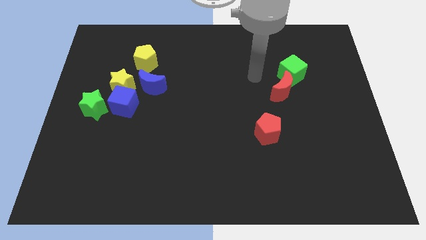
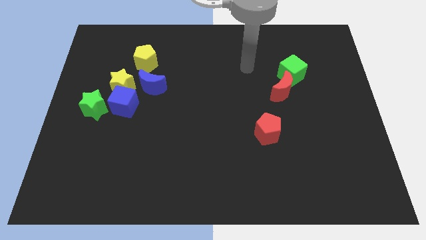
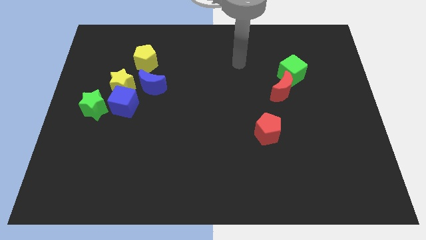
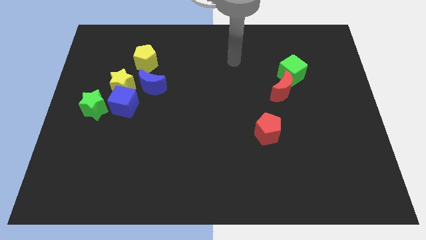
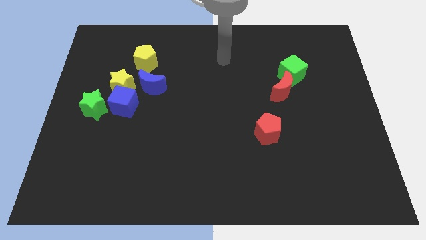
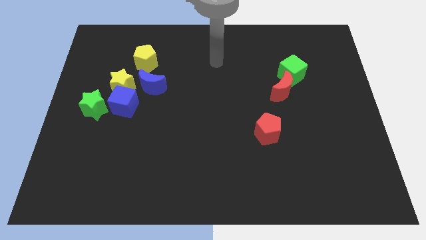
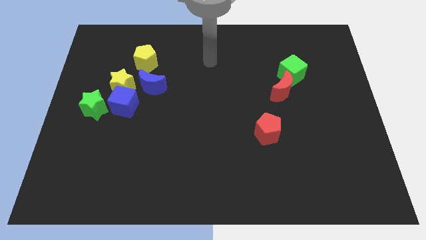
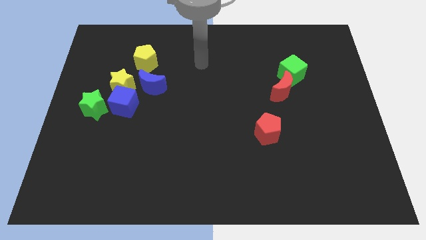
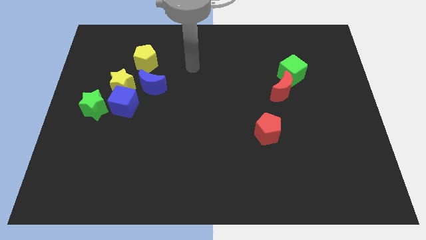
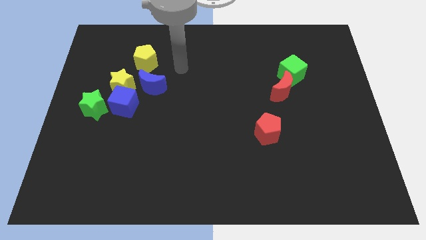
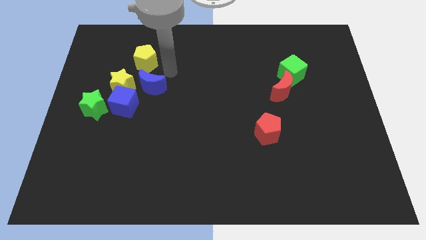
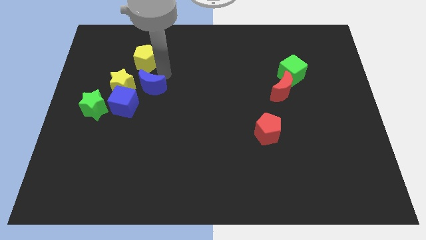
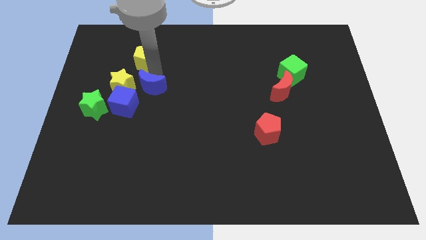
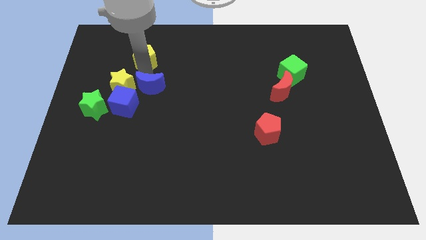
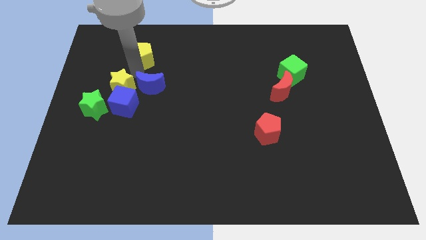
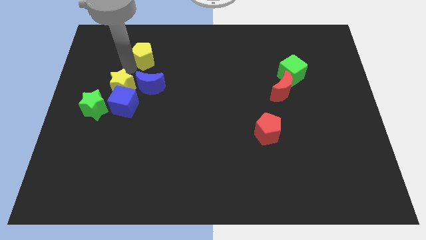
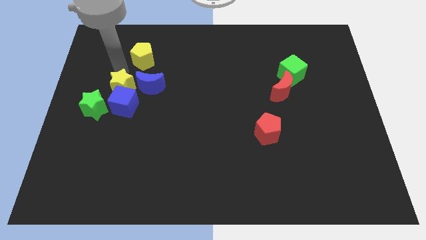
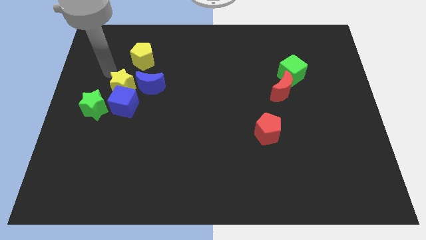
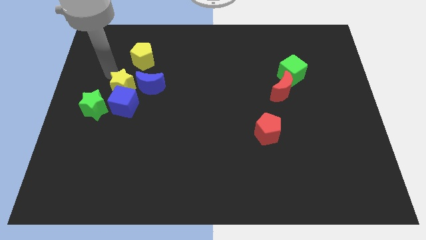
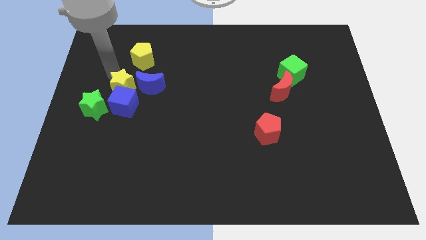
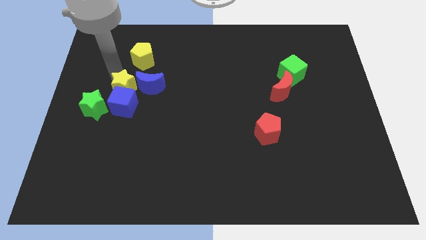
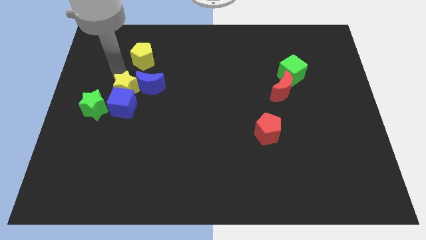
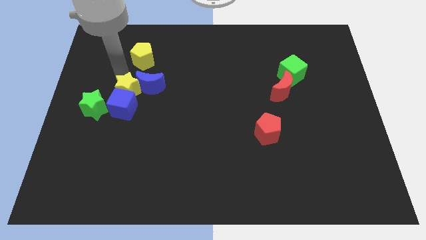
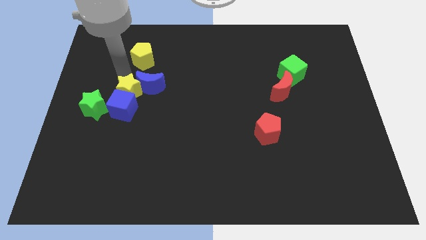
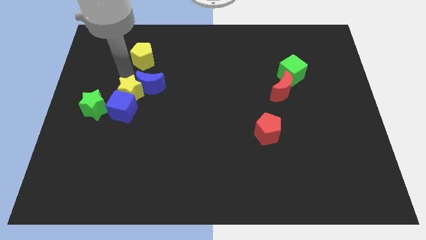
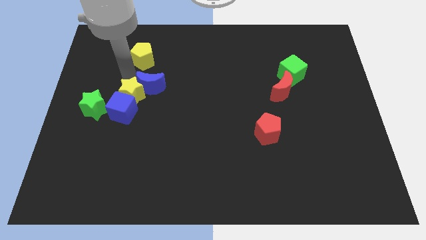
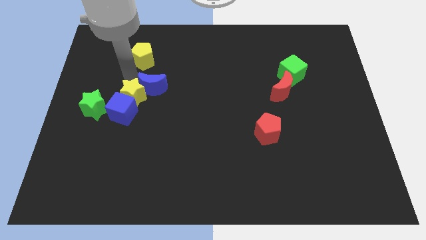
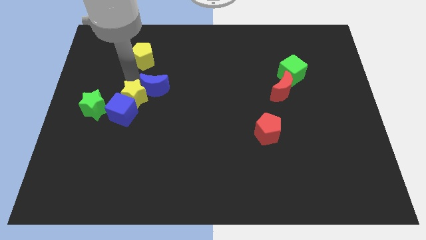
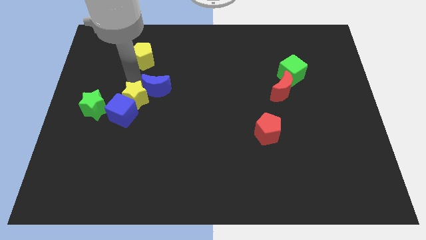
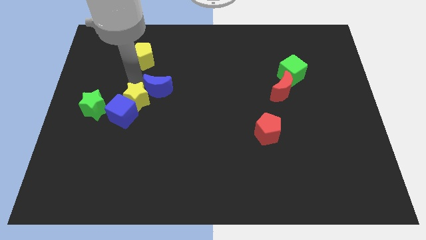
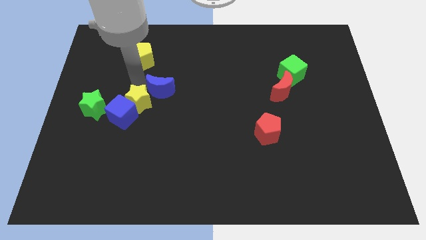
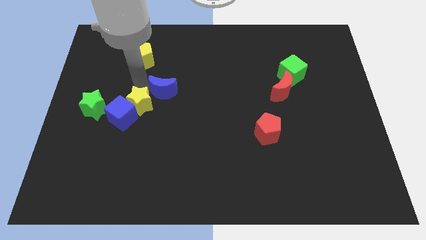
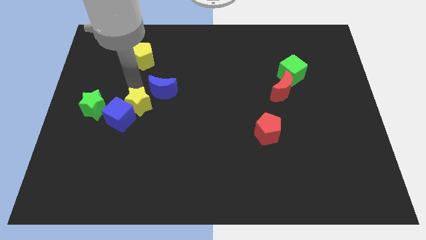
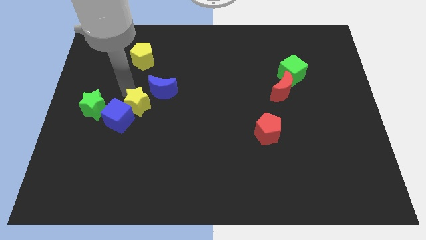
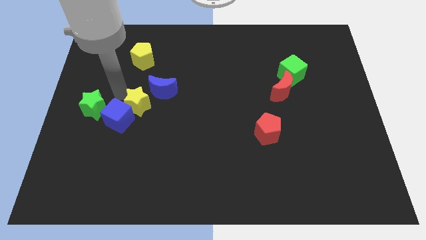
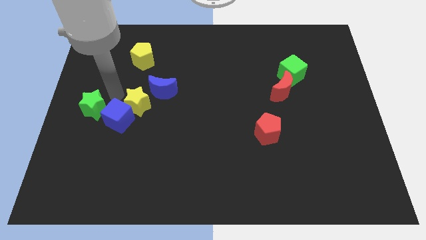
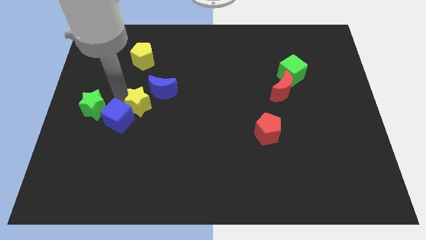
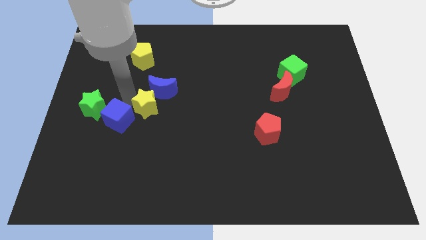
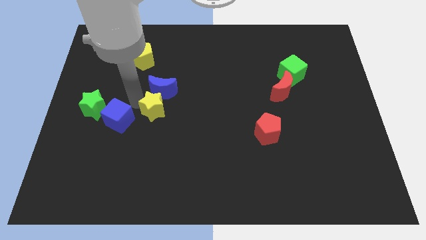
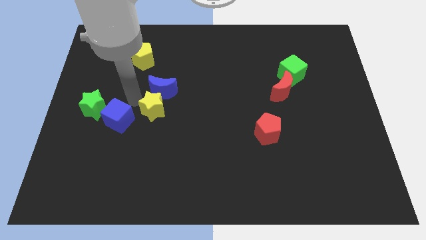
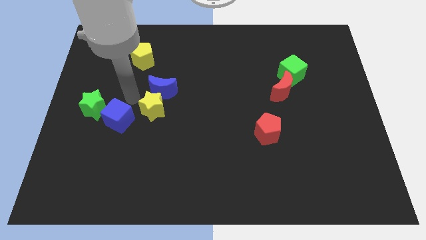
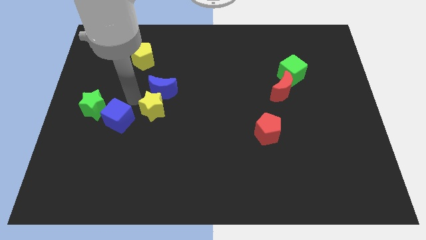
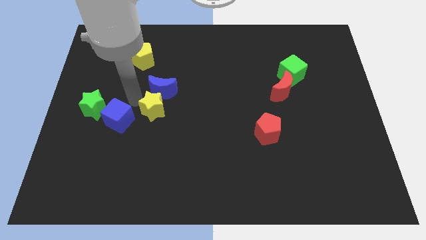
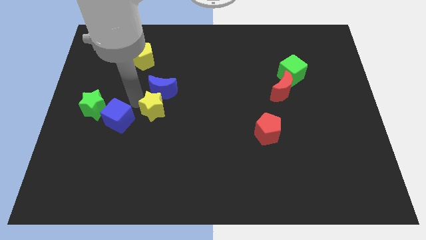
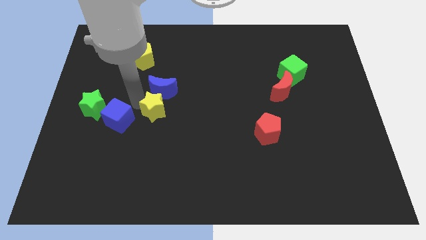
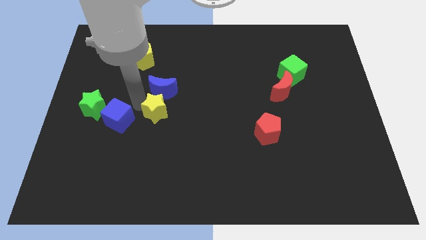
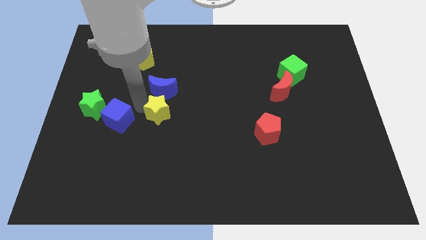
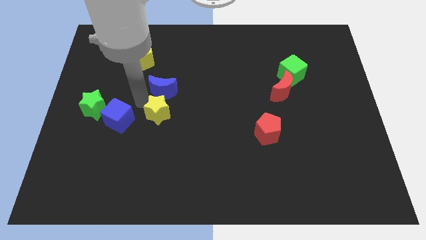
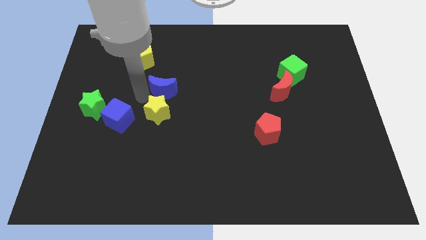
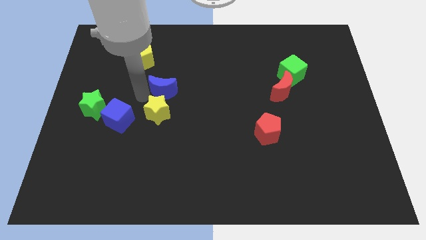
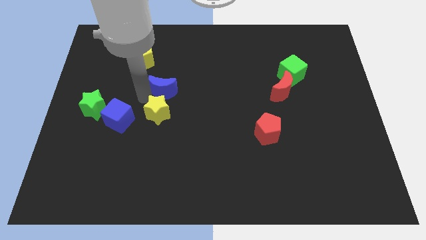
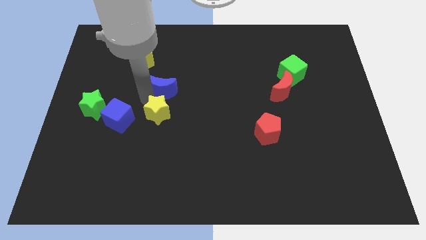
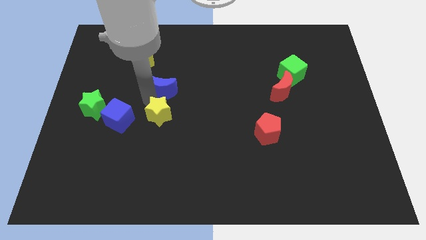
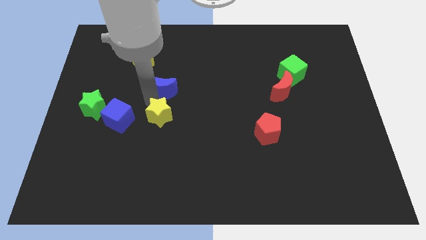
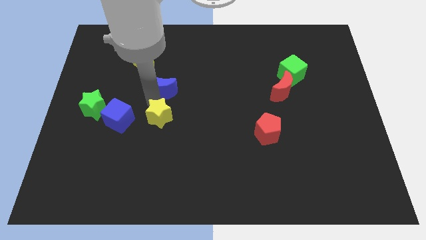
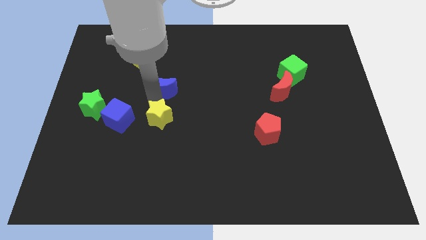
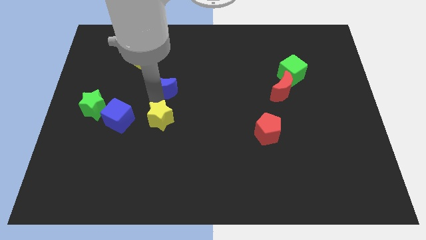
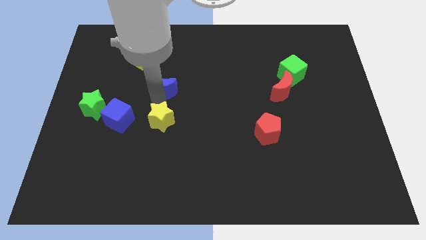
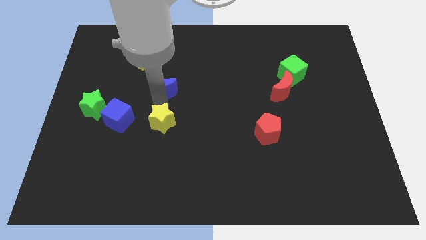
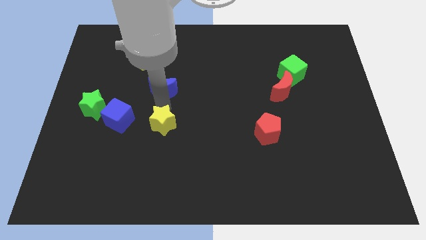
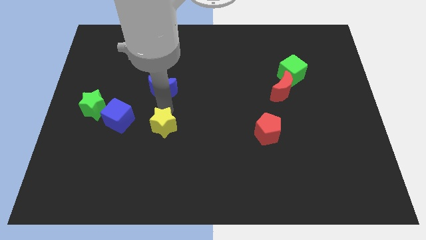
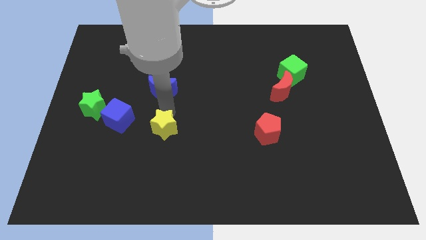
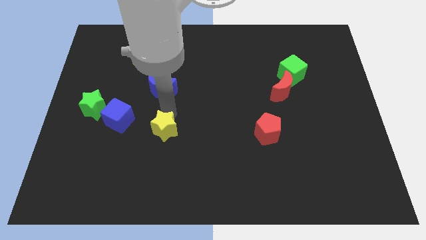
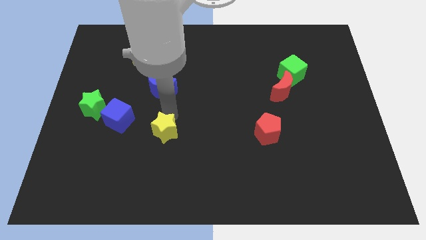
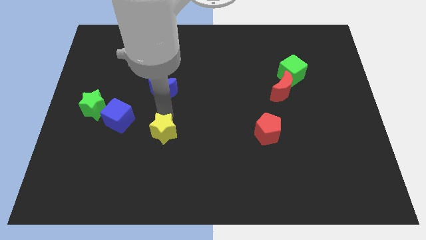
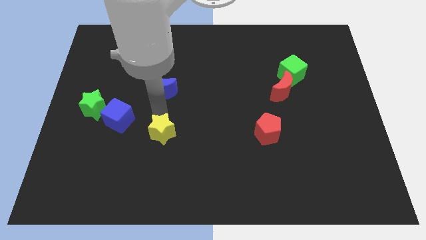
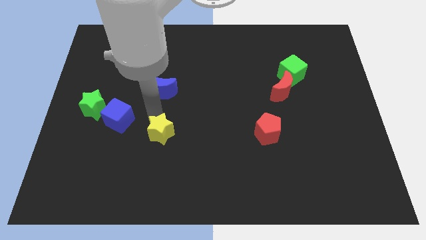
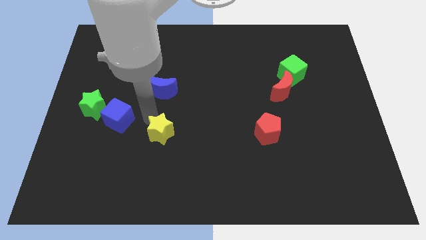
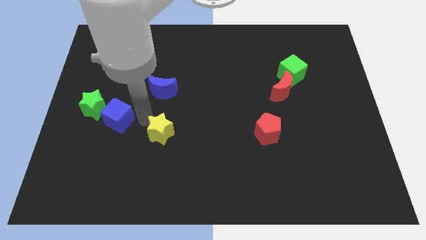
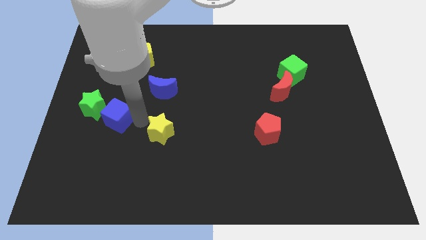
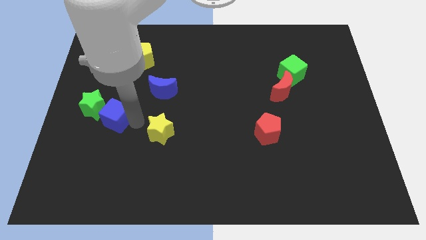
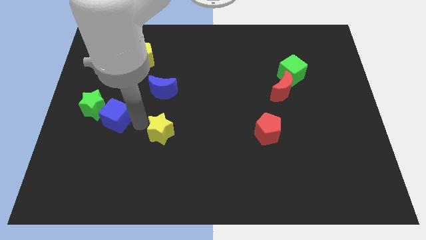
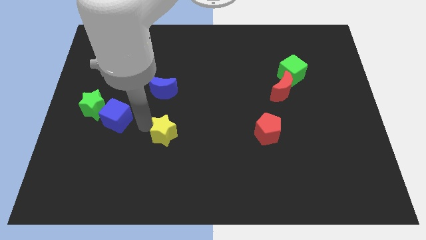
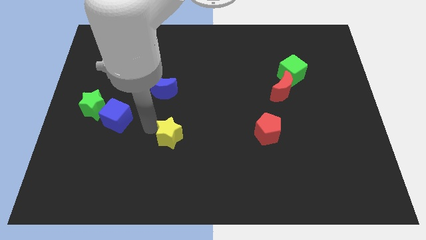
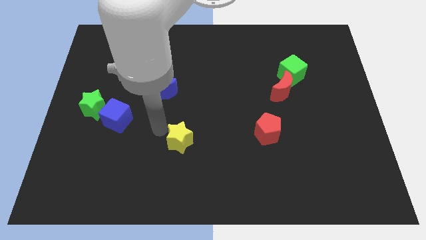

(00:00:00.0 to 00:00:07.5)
slide the yellow star down and right

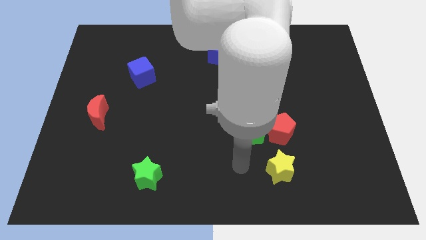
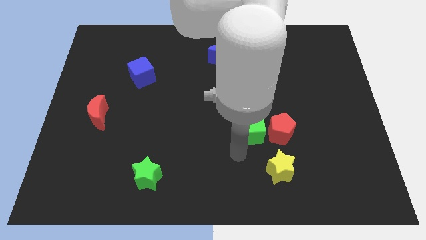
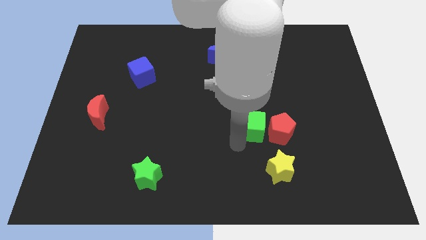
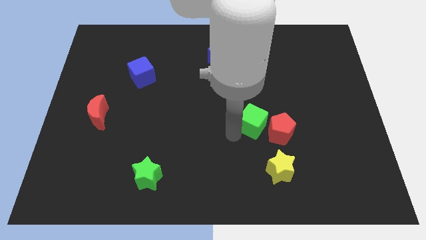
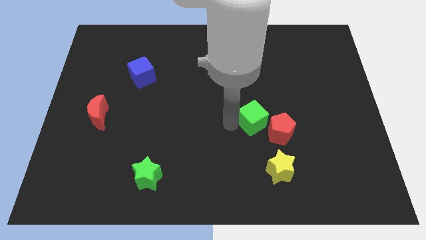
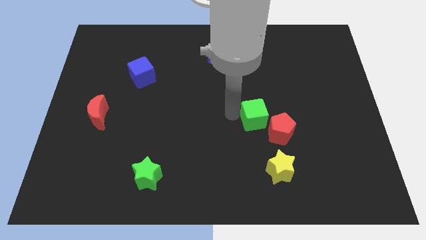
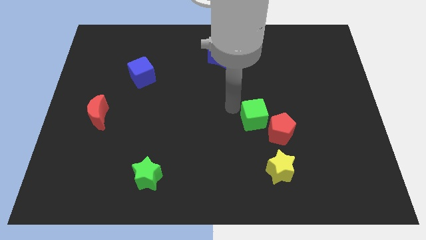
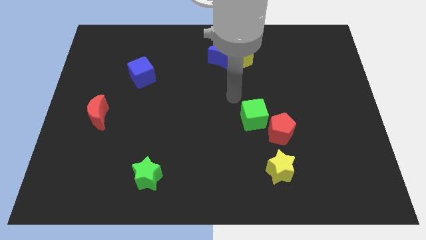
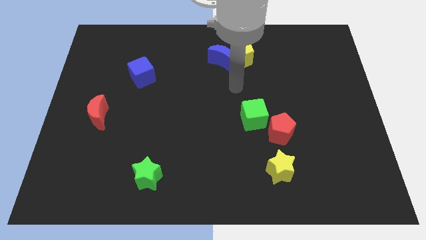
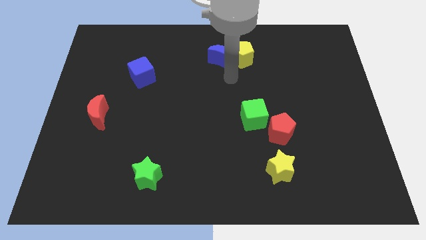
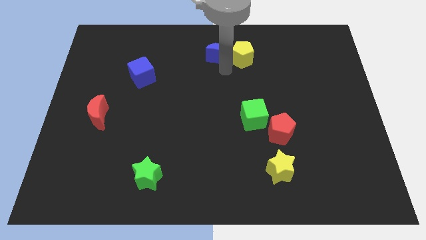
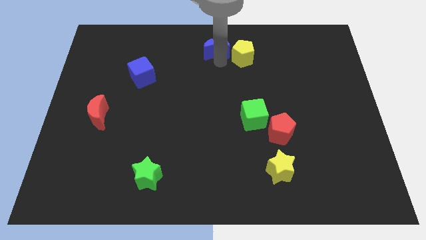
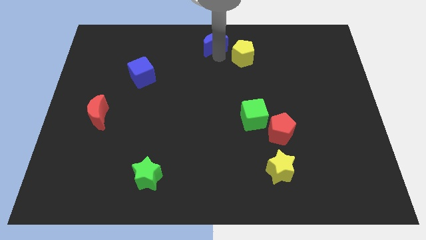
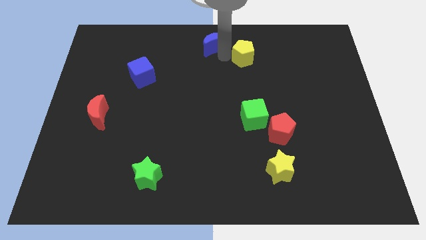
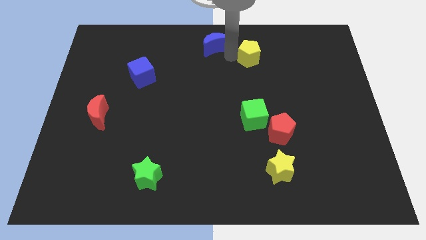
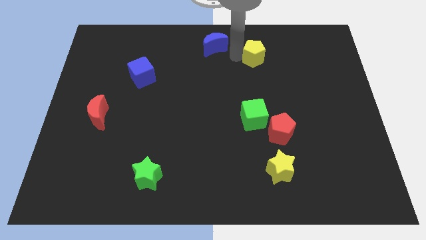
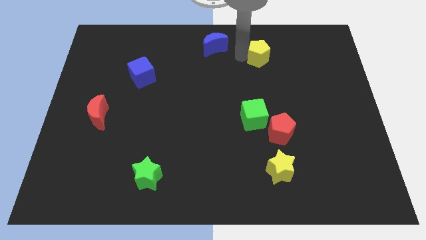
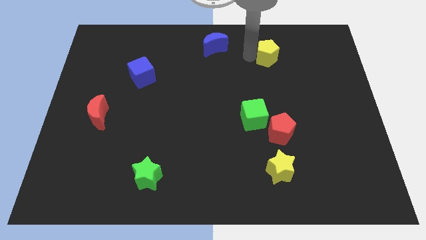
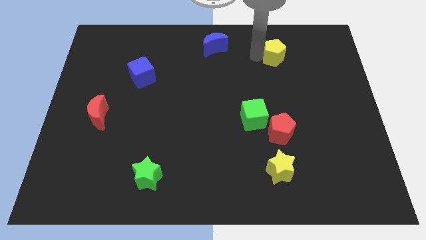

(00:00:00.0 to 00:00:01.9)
move the yellow pentagon a little right
